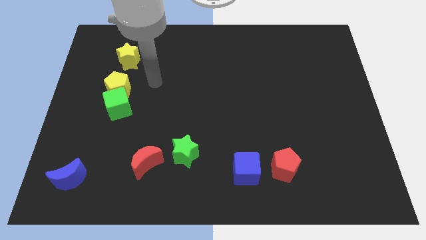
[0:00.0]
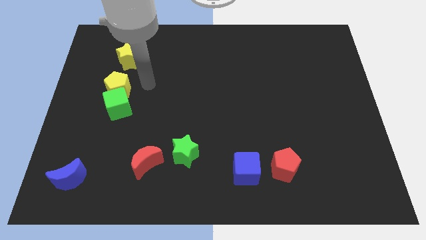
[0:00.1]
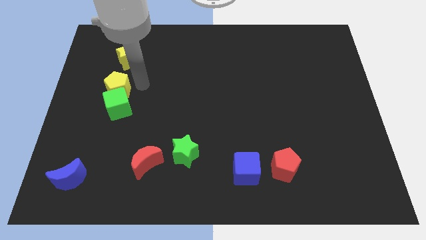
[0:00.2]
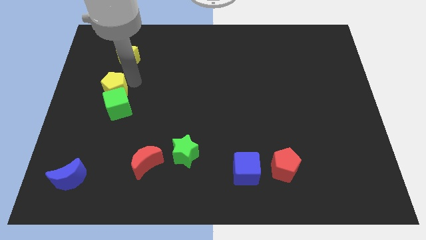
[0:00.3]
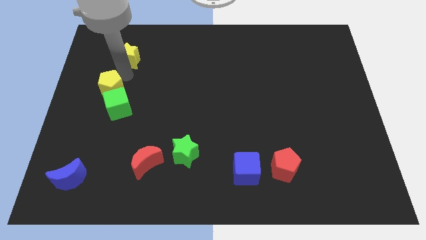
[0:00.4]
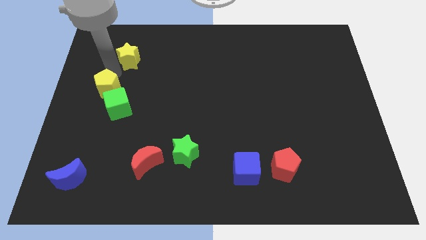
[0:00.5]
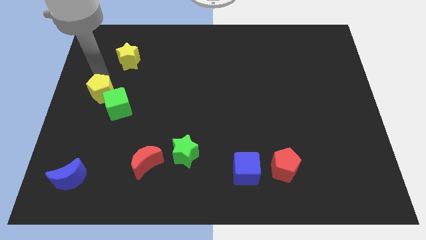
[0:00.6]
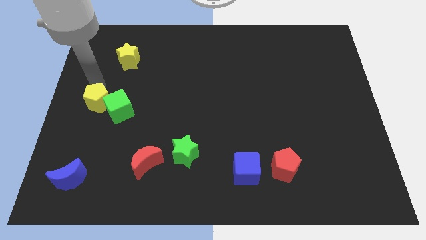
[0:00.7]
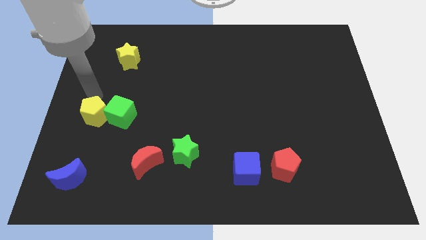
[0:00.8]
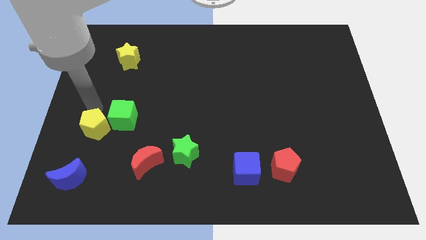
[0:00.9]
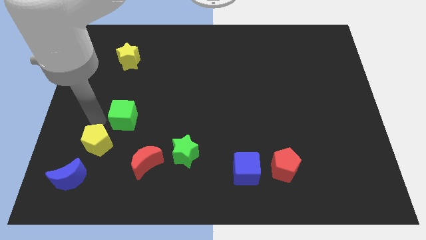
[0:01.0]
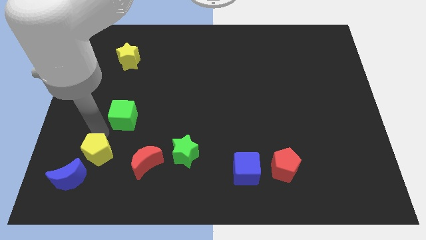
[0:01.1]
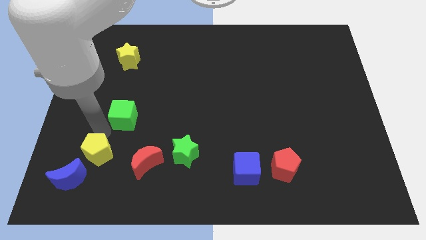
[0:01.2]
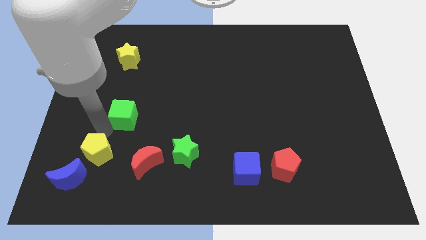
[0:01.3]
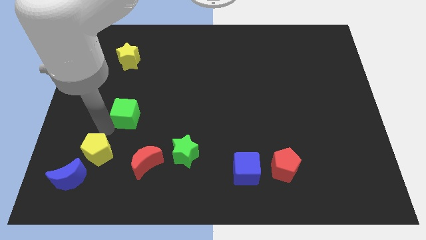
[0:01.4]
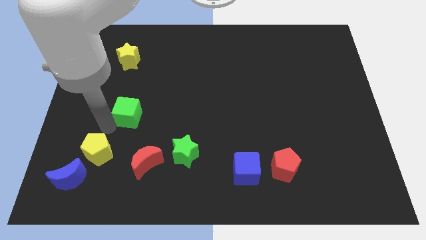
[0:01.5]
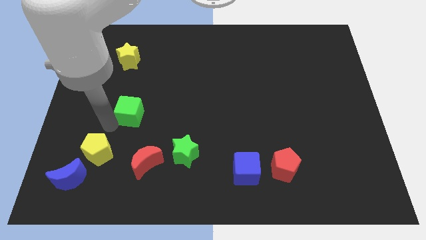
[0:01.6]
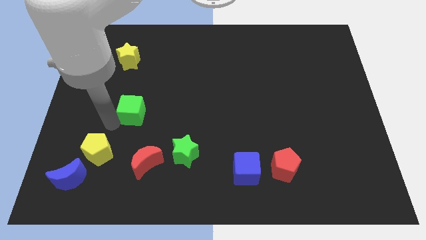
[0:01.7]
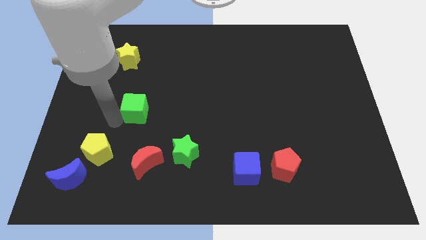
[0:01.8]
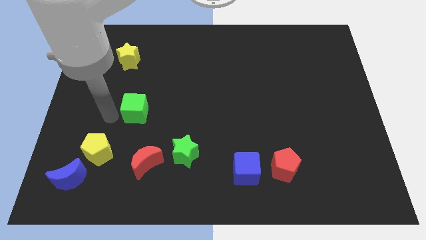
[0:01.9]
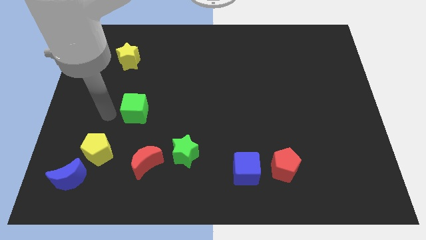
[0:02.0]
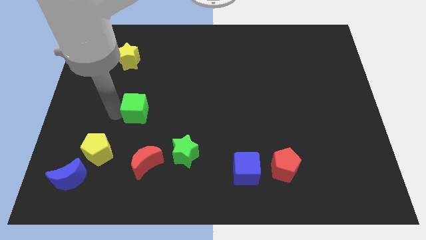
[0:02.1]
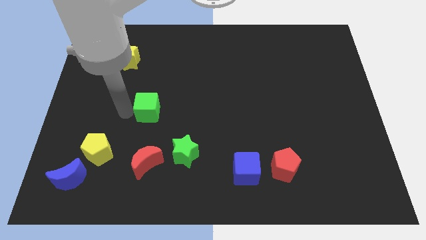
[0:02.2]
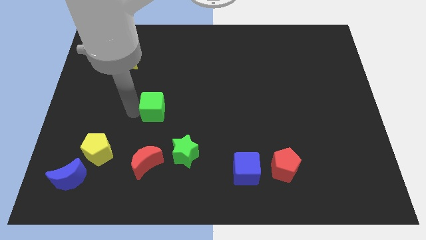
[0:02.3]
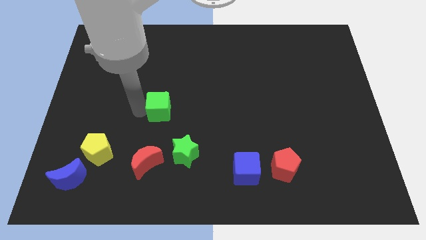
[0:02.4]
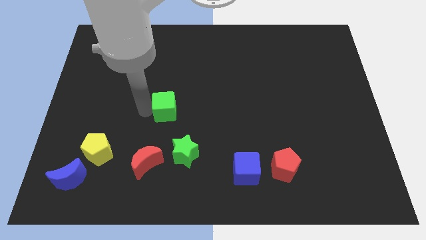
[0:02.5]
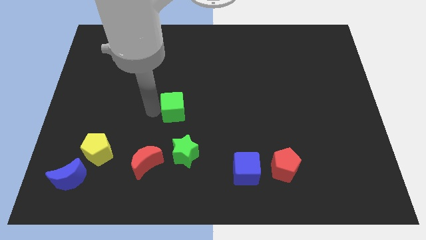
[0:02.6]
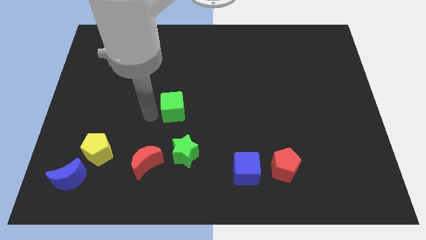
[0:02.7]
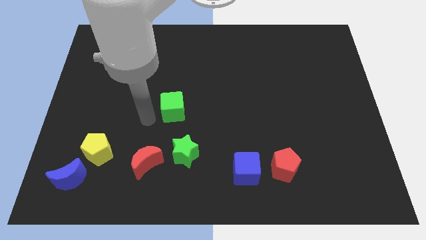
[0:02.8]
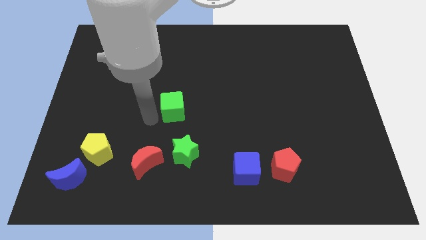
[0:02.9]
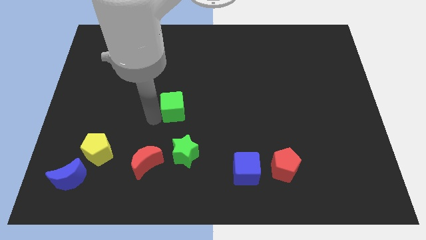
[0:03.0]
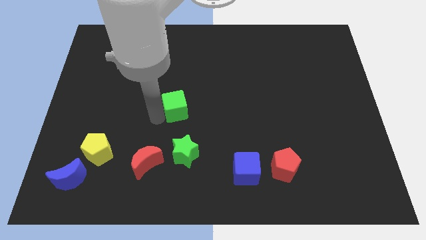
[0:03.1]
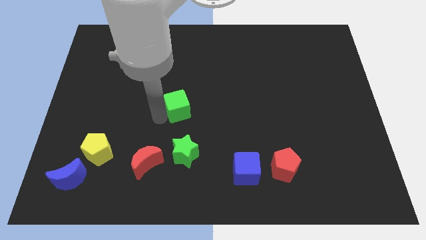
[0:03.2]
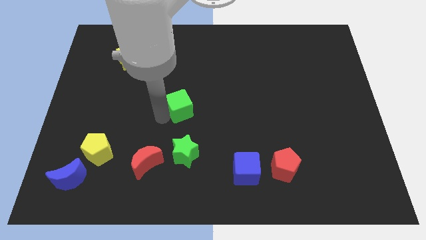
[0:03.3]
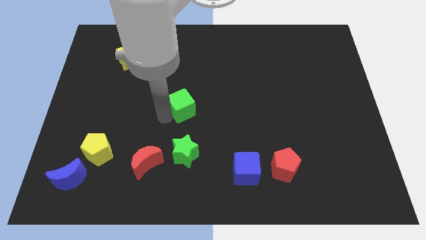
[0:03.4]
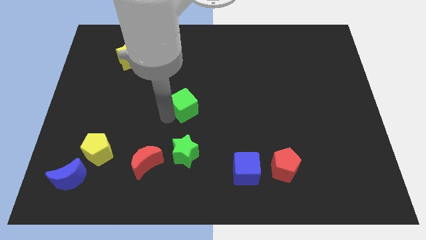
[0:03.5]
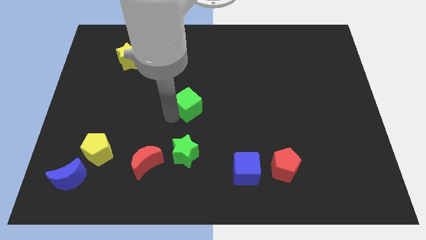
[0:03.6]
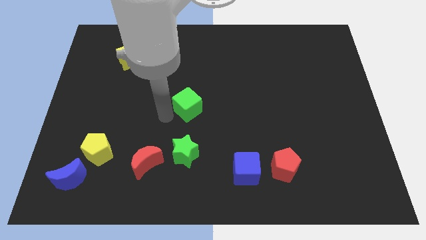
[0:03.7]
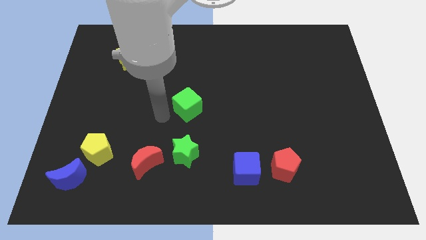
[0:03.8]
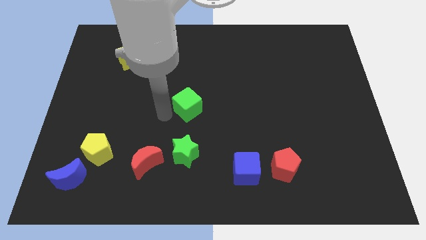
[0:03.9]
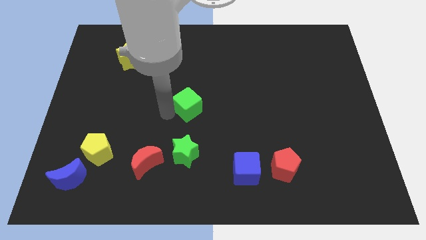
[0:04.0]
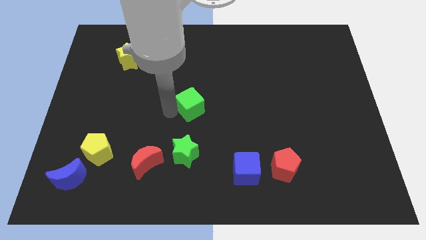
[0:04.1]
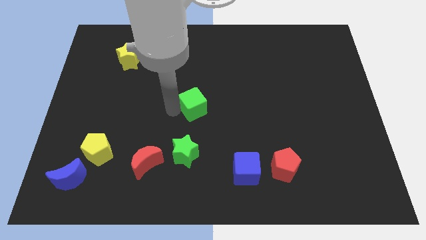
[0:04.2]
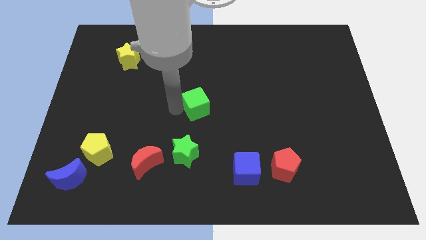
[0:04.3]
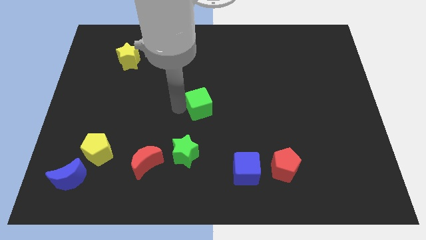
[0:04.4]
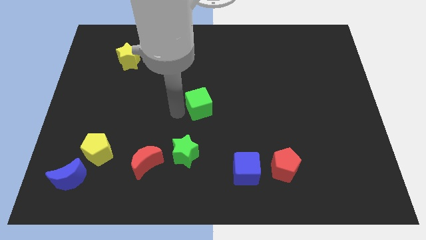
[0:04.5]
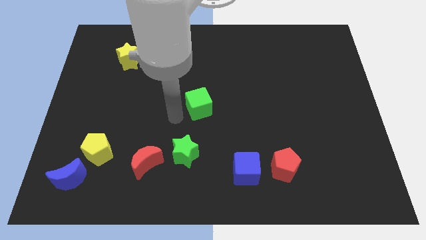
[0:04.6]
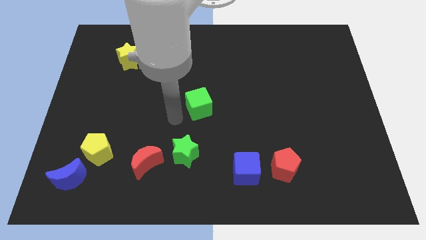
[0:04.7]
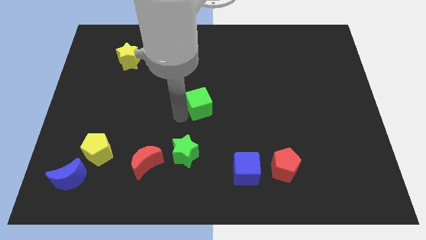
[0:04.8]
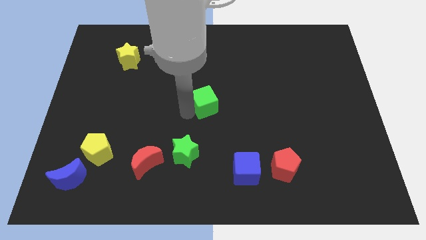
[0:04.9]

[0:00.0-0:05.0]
move the green cube to the right

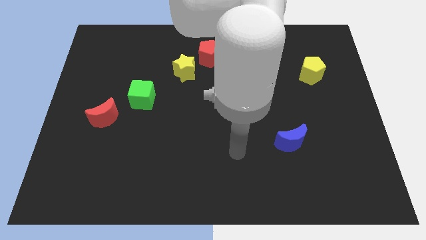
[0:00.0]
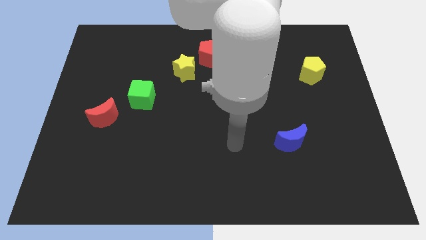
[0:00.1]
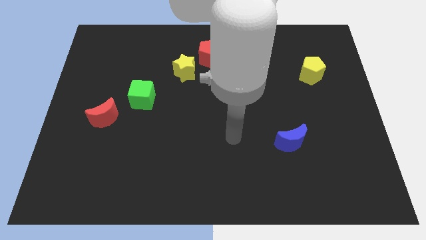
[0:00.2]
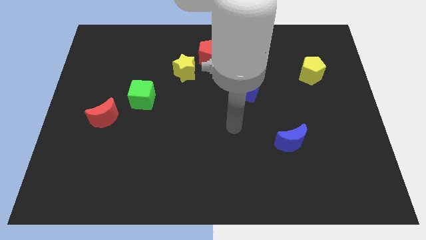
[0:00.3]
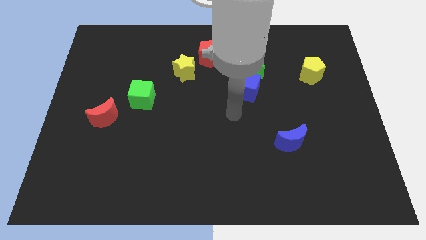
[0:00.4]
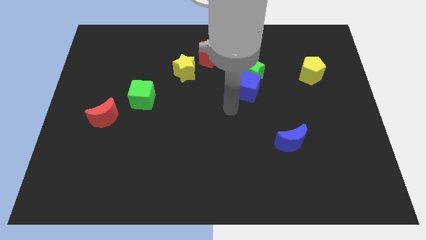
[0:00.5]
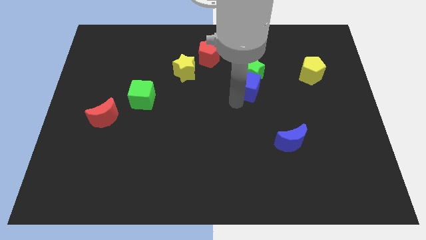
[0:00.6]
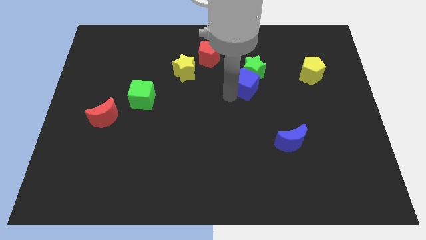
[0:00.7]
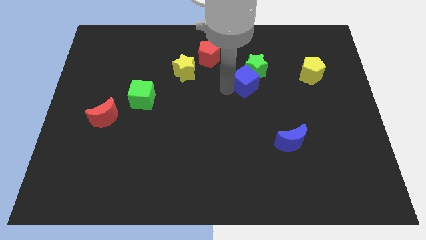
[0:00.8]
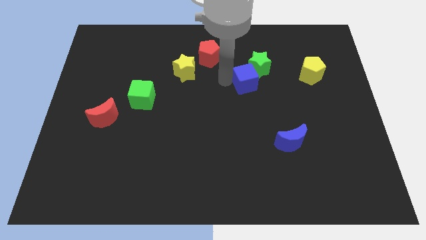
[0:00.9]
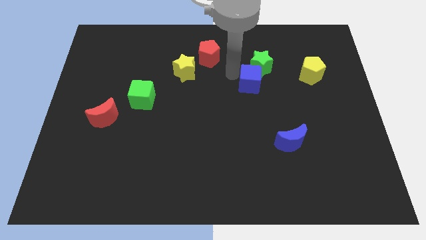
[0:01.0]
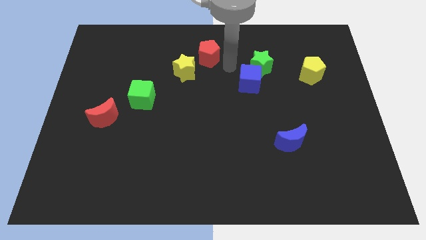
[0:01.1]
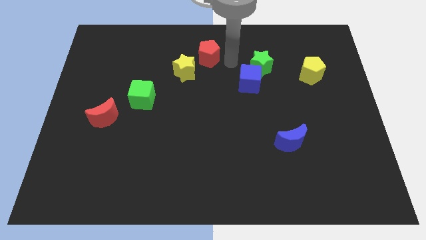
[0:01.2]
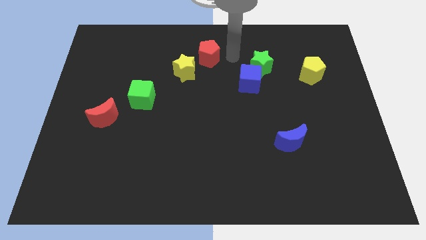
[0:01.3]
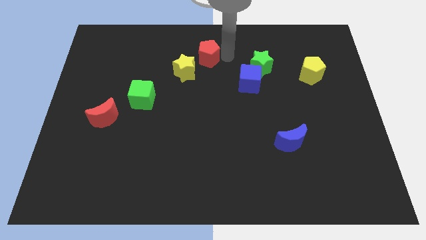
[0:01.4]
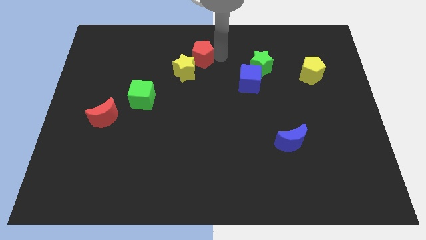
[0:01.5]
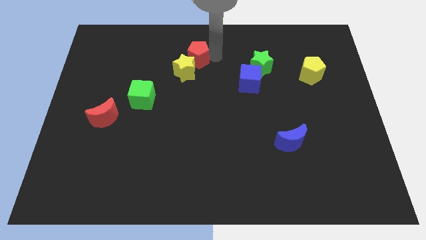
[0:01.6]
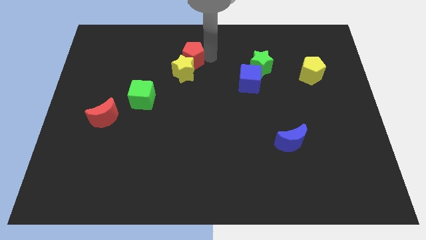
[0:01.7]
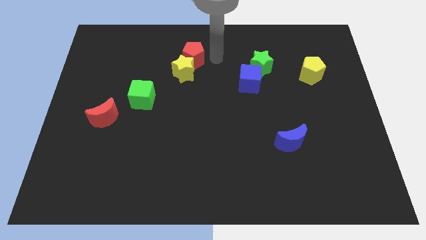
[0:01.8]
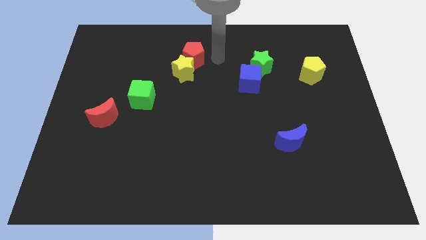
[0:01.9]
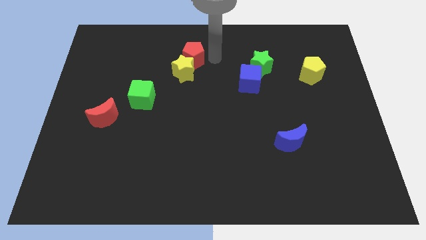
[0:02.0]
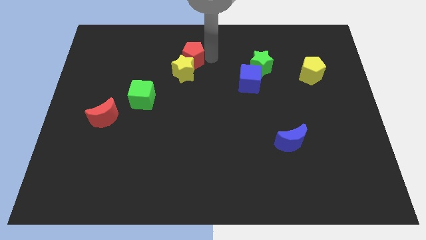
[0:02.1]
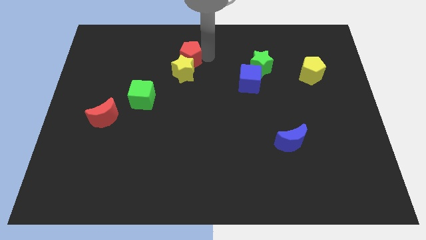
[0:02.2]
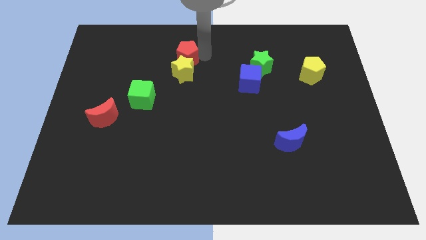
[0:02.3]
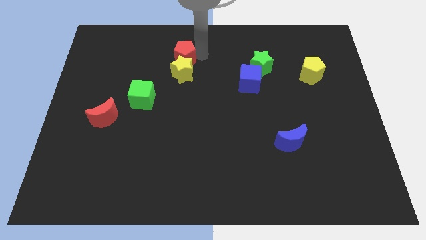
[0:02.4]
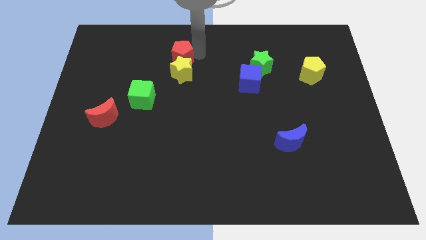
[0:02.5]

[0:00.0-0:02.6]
move the red pentagon slightly to the left

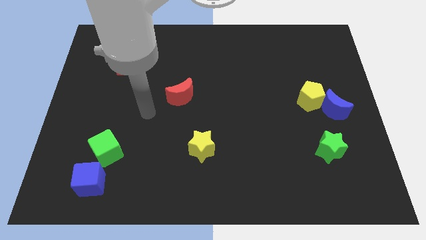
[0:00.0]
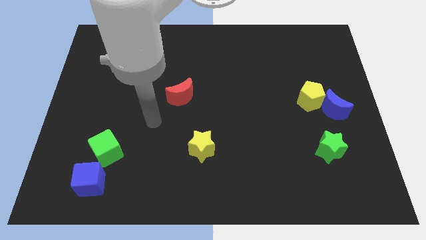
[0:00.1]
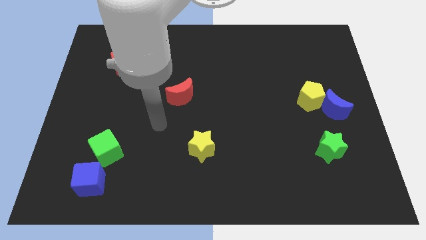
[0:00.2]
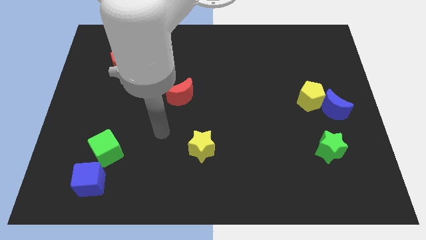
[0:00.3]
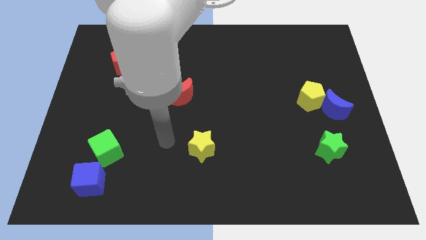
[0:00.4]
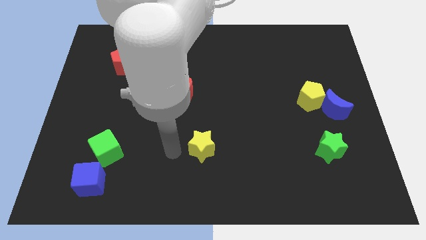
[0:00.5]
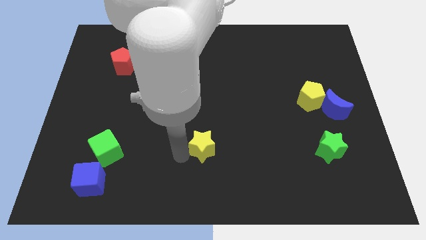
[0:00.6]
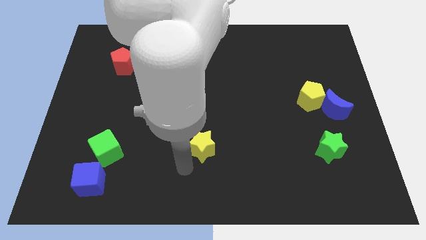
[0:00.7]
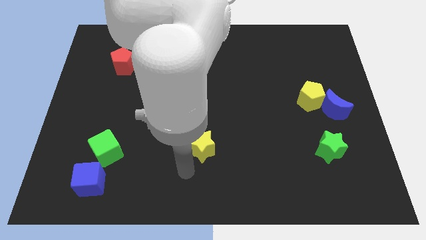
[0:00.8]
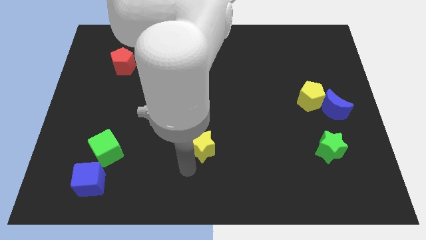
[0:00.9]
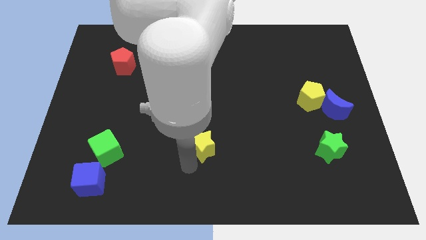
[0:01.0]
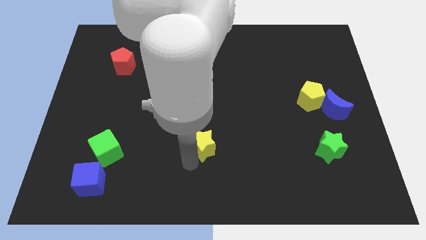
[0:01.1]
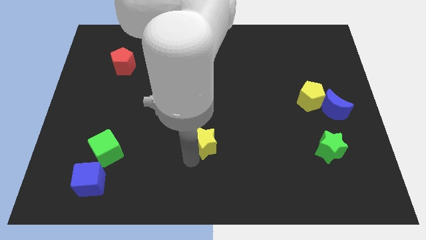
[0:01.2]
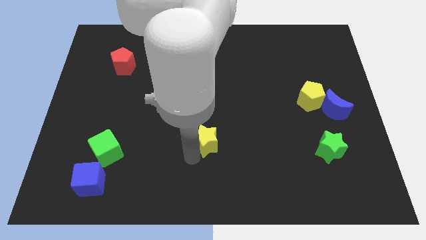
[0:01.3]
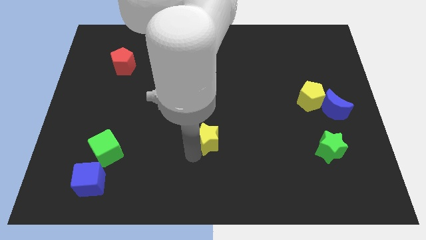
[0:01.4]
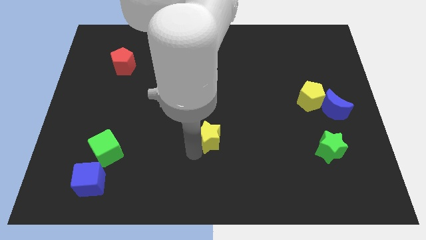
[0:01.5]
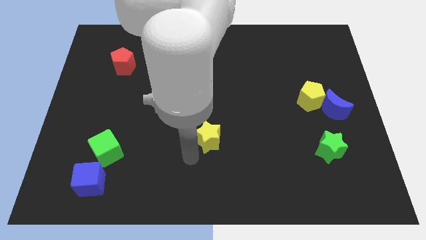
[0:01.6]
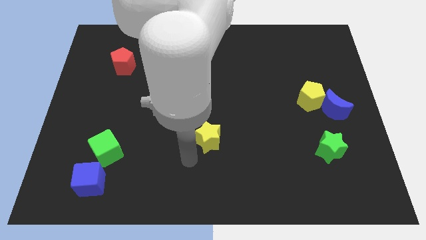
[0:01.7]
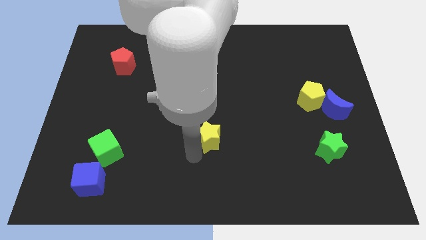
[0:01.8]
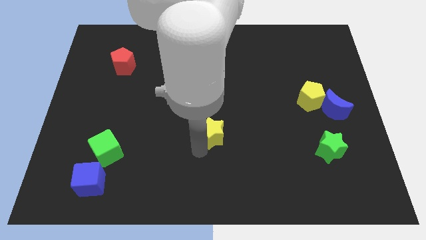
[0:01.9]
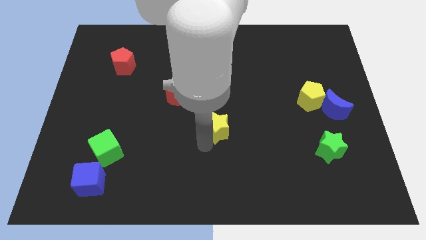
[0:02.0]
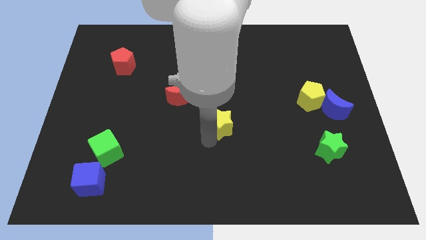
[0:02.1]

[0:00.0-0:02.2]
slightly move the yellow star up and right
